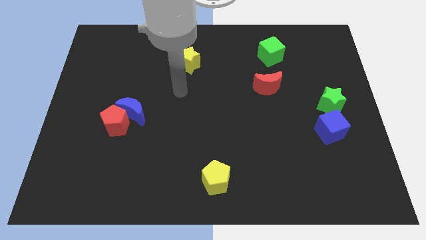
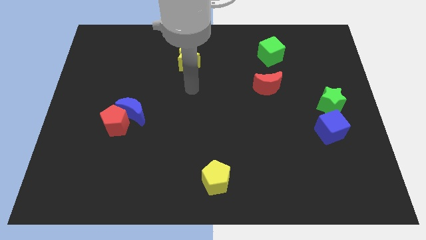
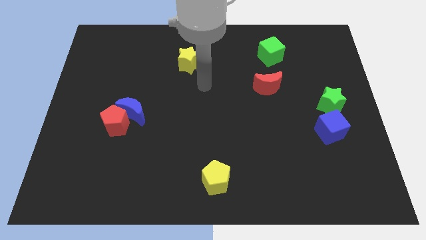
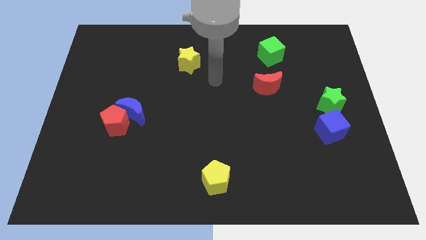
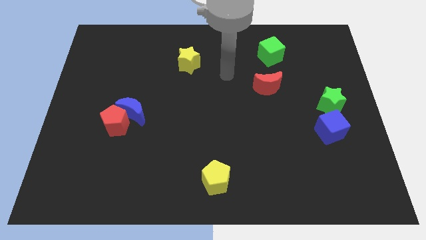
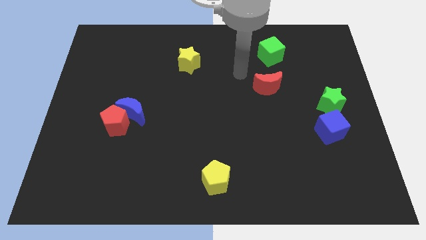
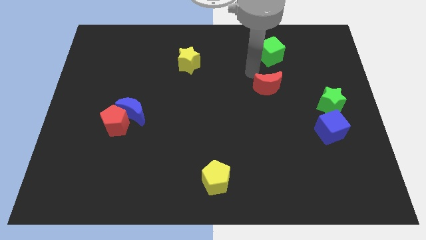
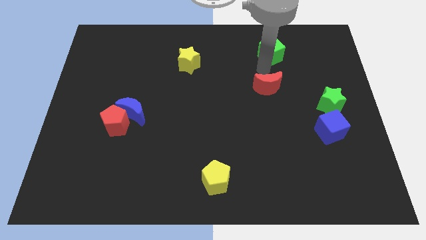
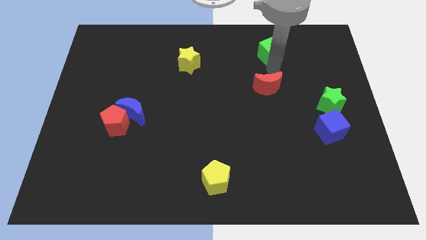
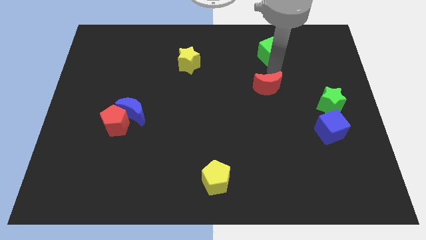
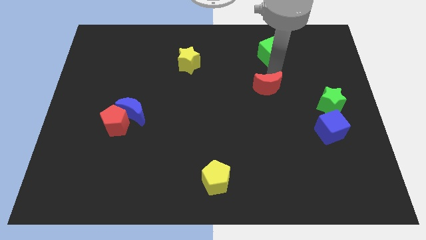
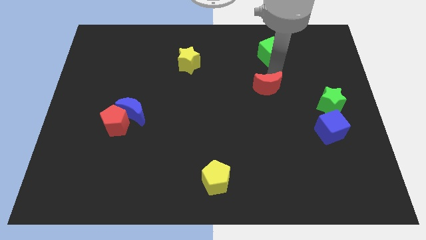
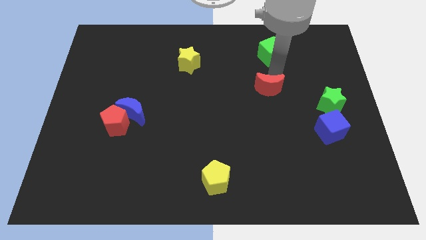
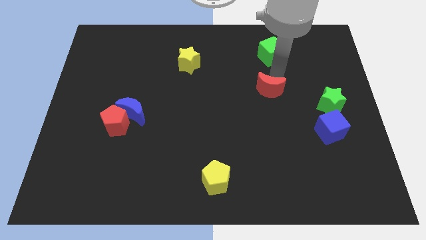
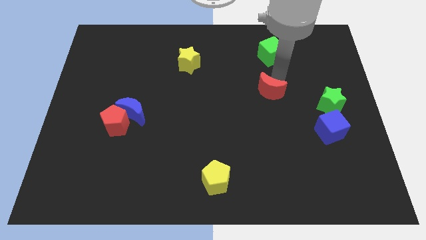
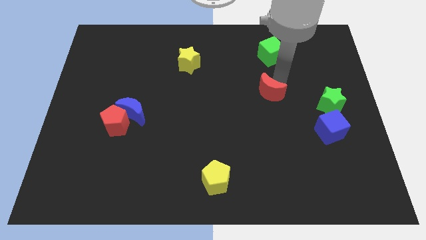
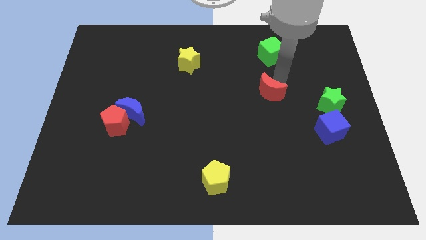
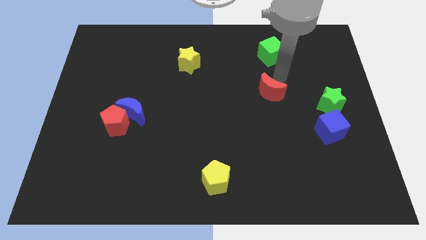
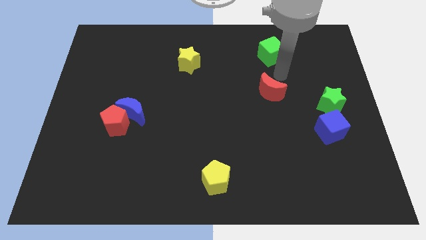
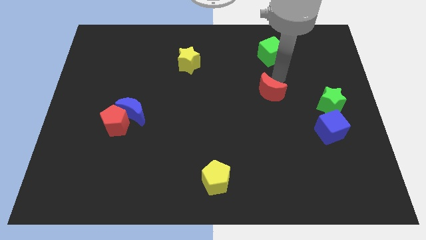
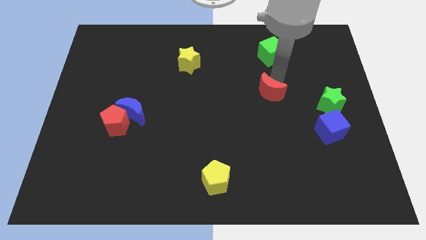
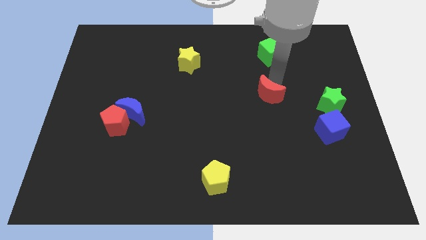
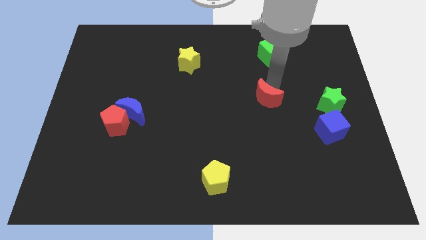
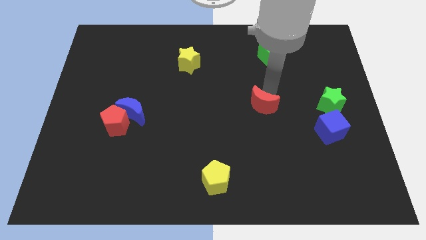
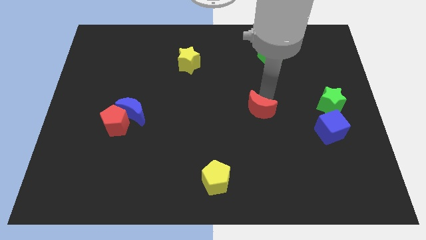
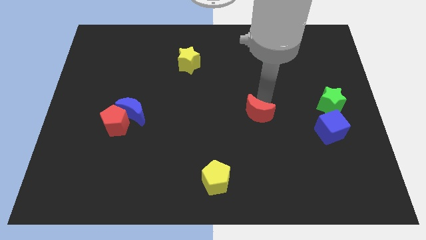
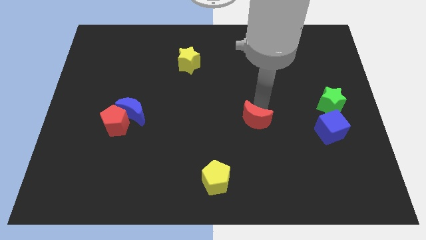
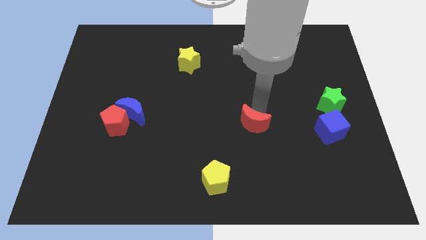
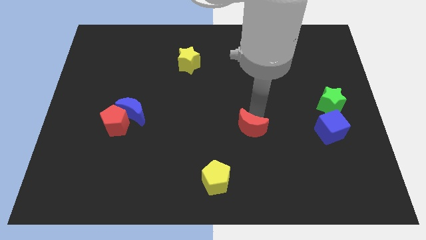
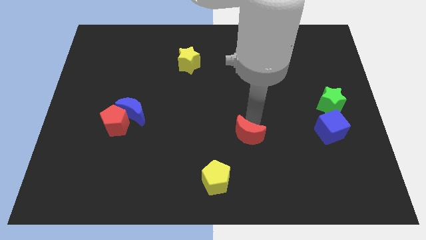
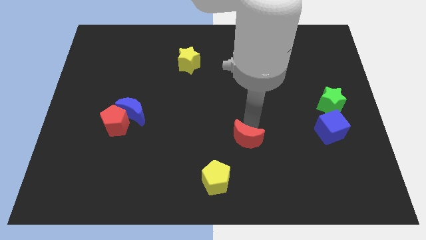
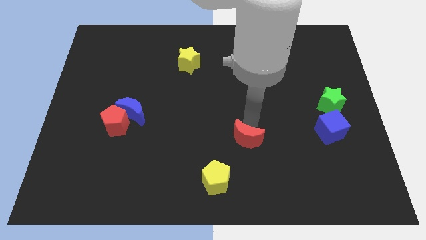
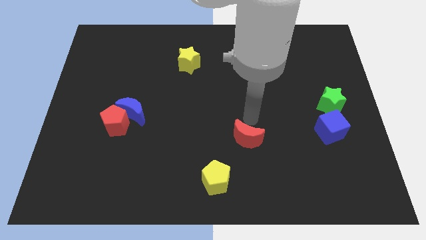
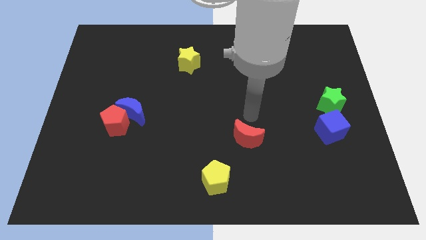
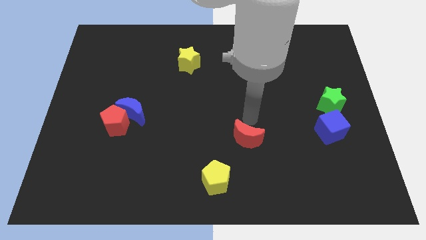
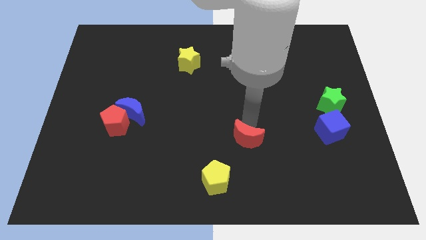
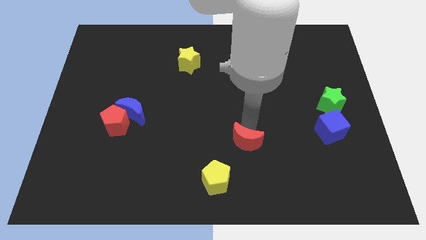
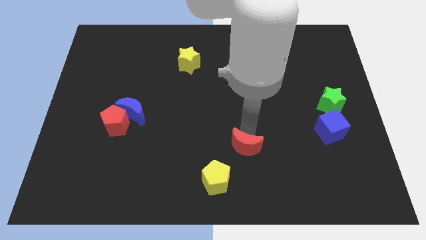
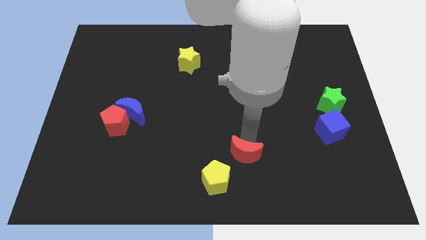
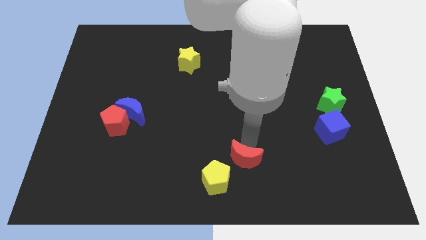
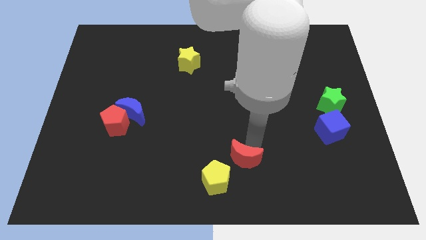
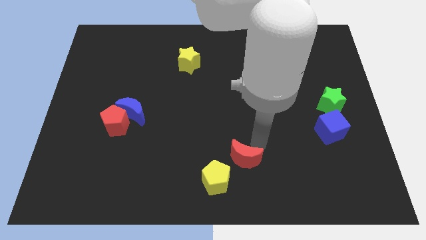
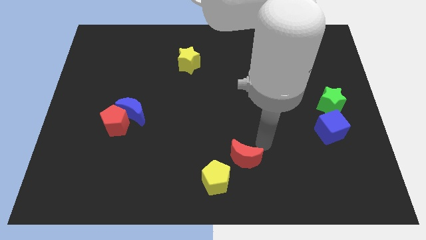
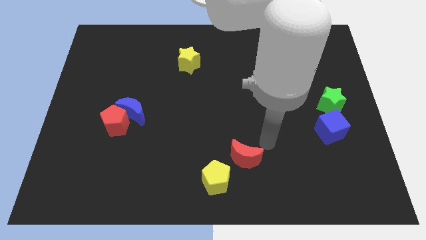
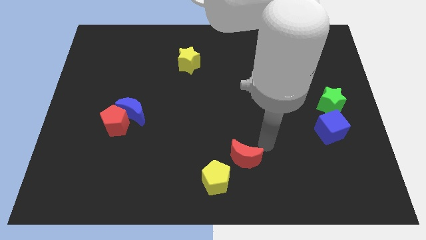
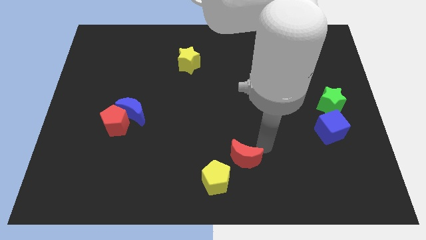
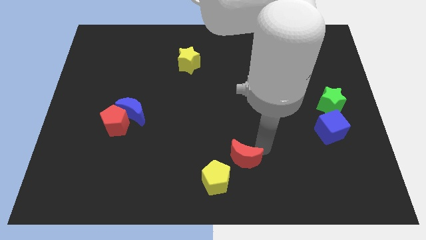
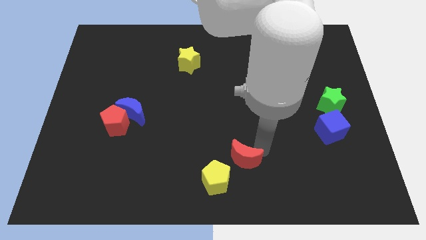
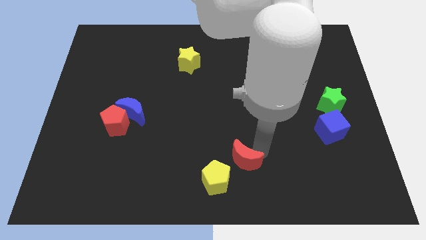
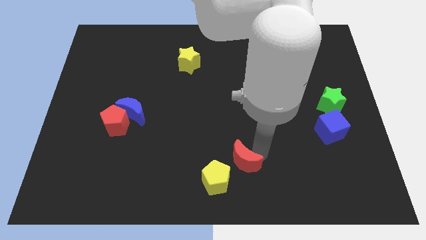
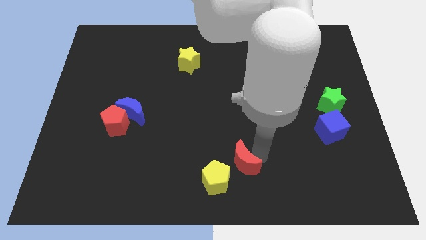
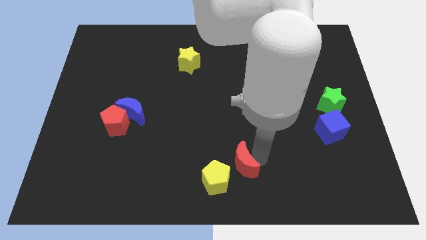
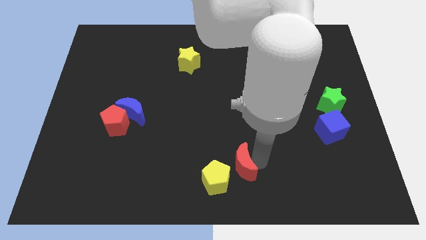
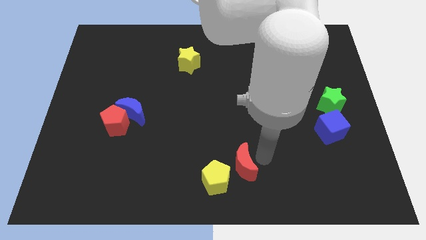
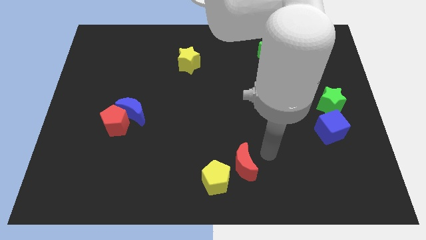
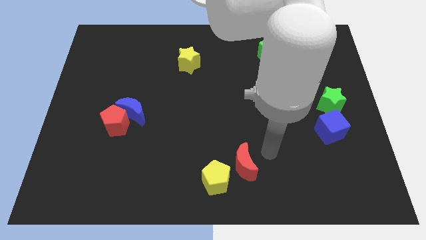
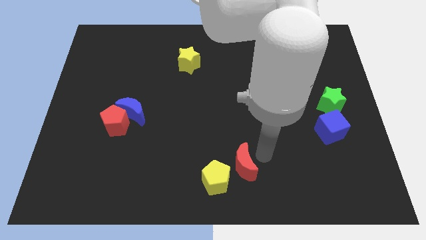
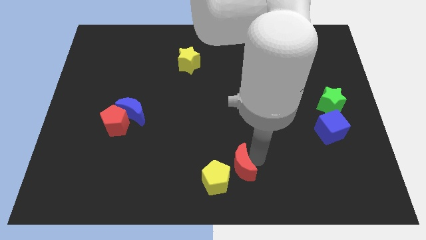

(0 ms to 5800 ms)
put the red moon next to the yellow pentagon

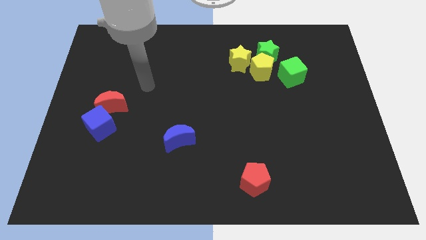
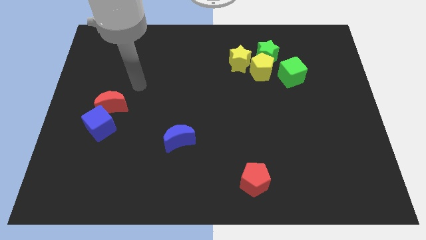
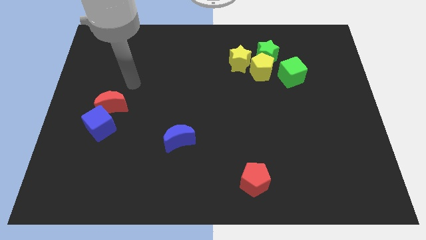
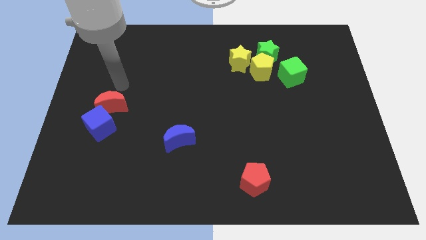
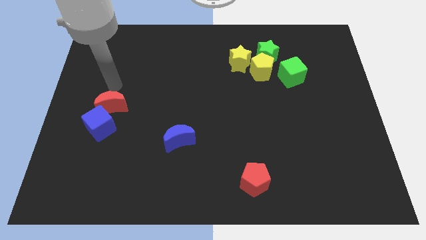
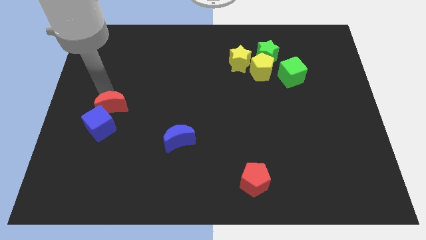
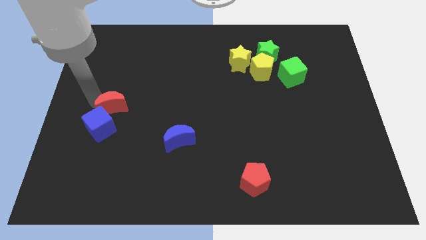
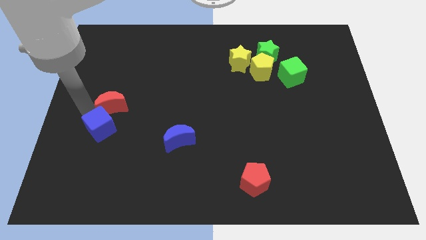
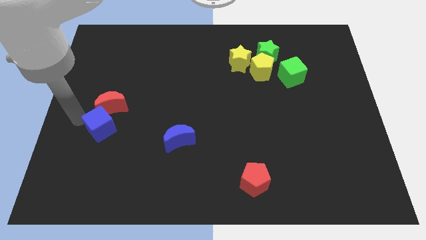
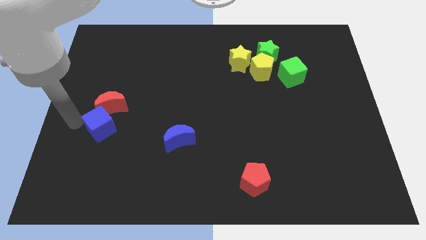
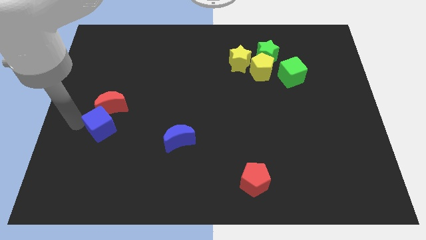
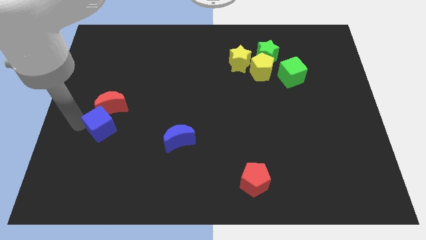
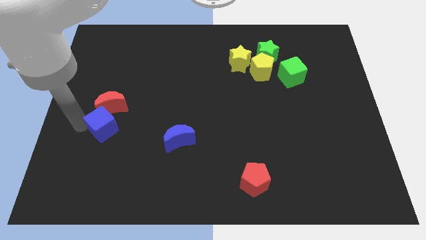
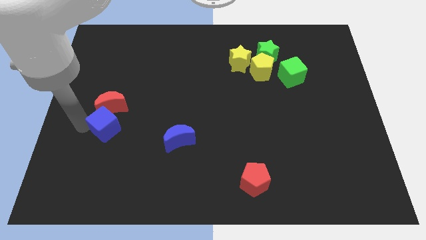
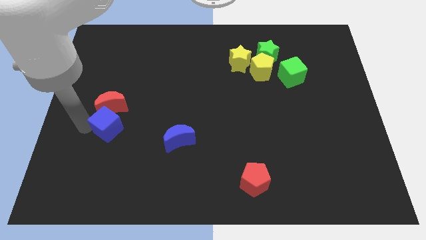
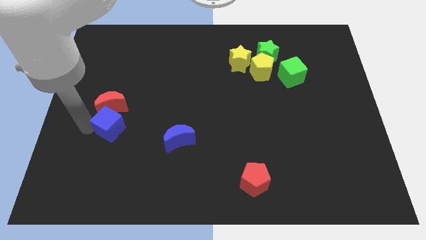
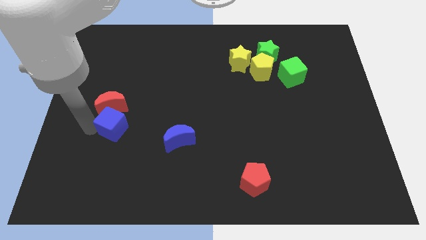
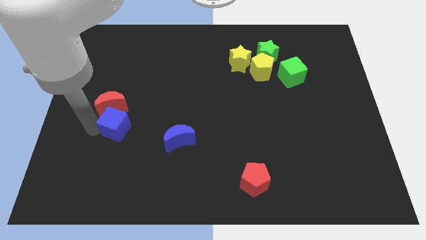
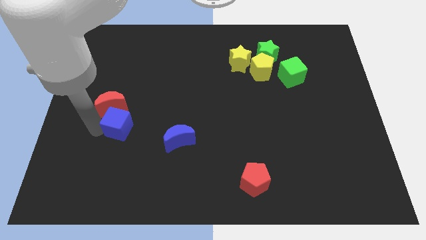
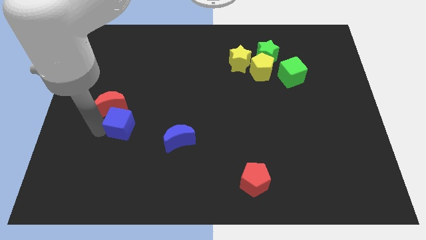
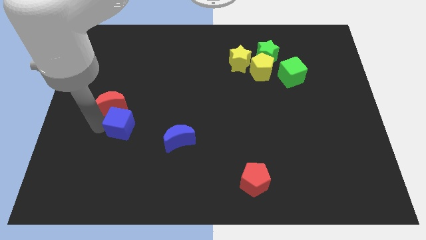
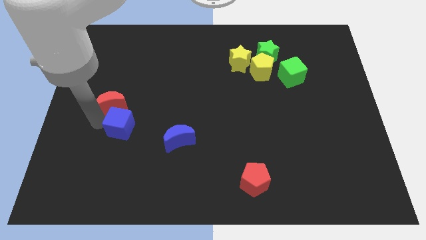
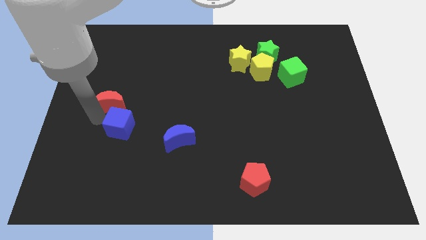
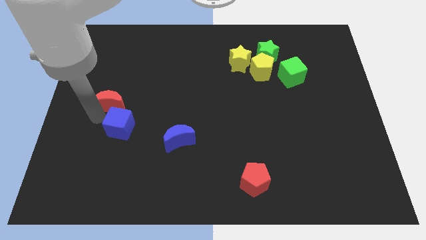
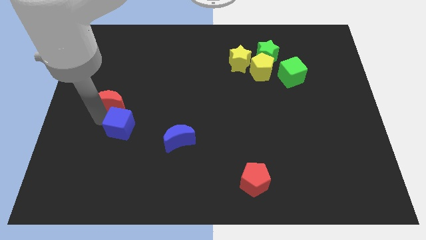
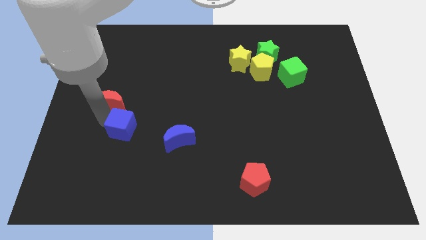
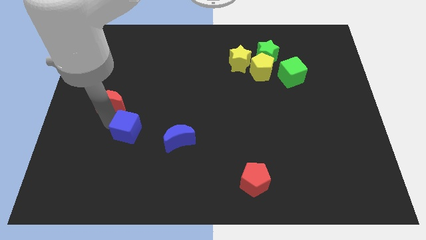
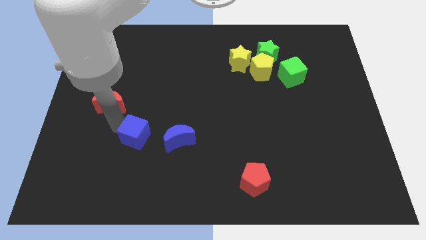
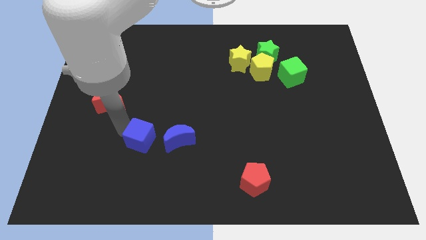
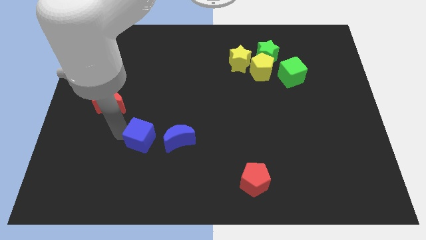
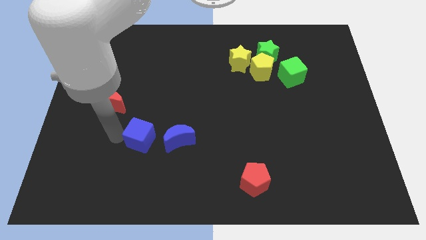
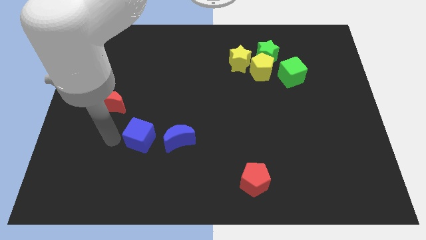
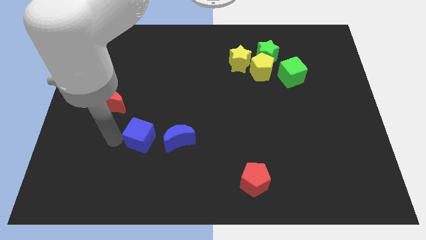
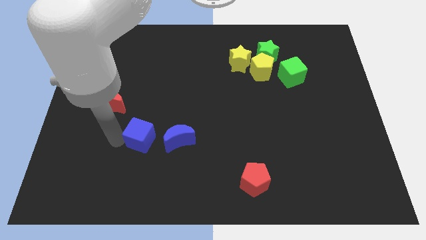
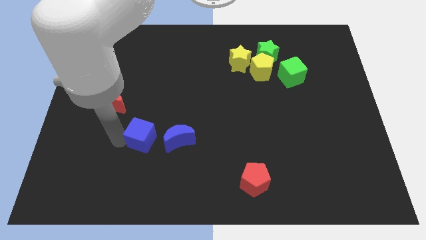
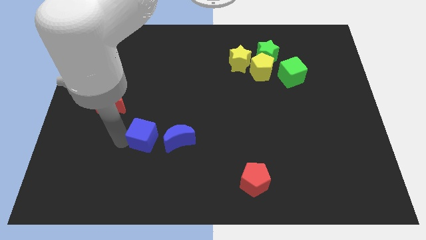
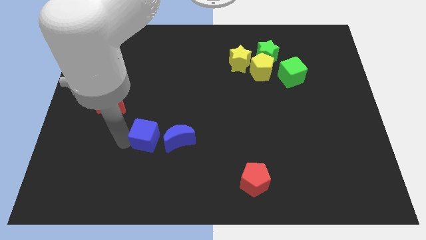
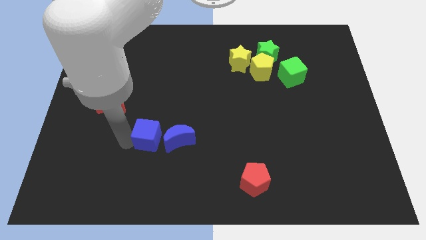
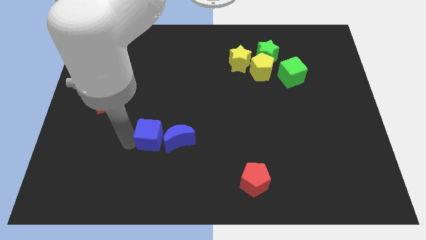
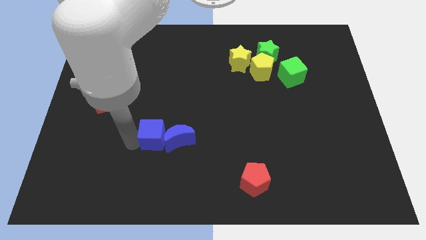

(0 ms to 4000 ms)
put the blue cube close to the blue moon
